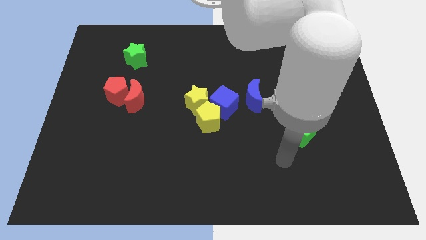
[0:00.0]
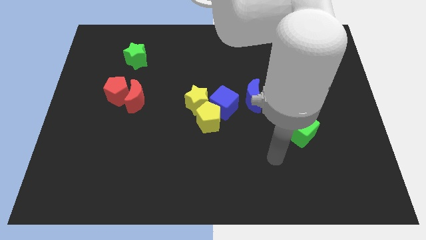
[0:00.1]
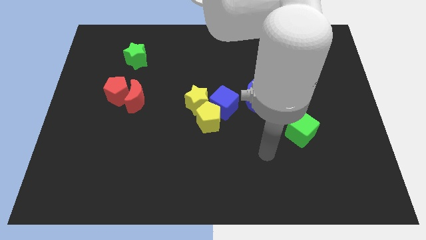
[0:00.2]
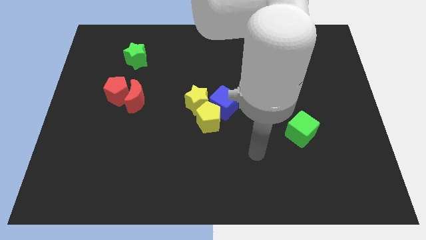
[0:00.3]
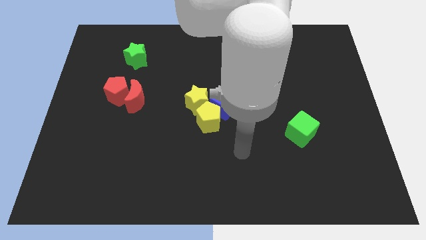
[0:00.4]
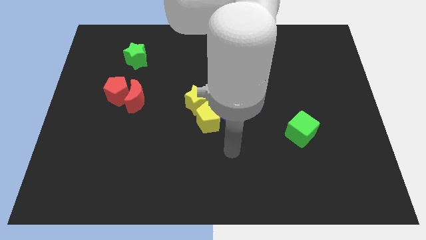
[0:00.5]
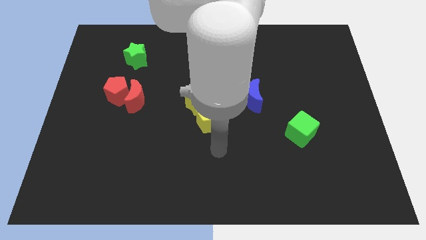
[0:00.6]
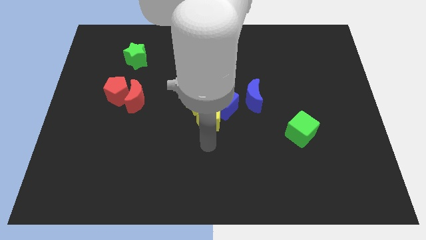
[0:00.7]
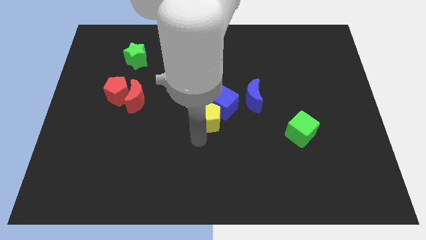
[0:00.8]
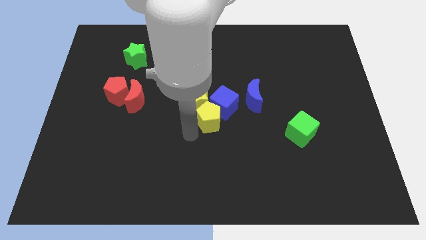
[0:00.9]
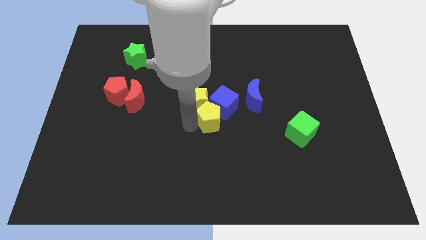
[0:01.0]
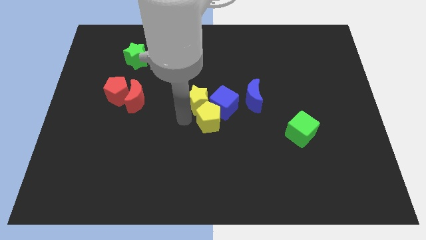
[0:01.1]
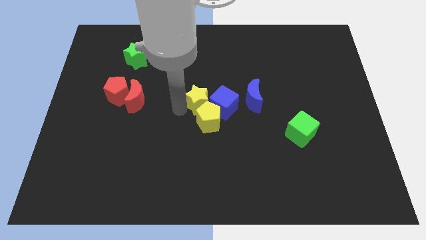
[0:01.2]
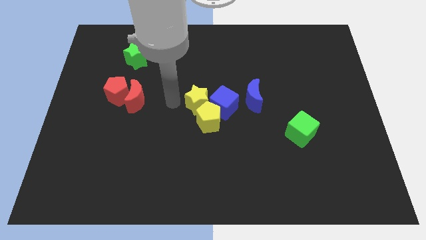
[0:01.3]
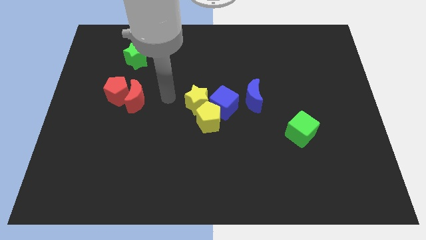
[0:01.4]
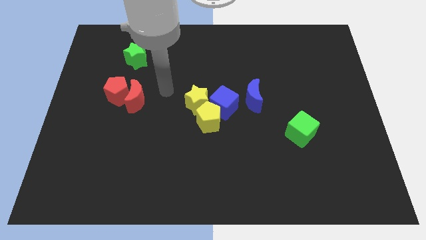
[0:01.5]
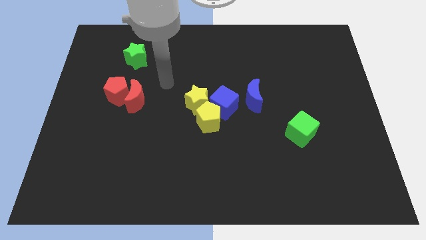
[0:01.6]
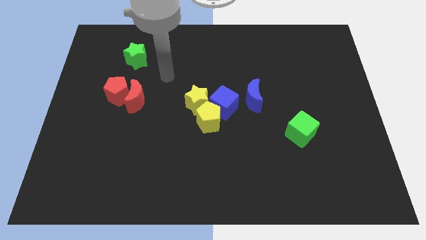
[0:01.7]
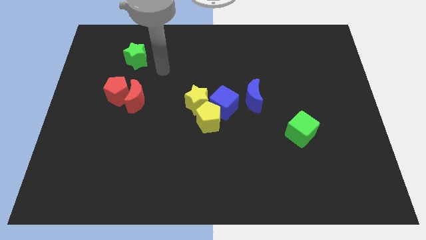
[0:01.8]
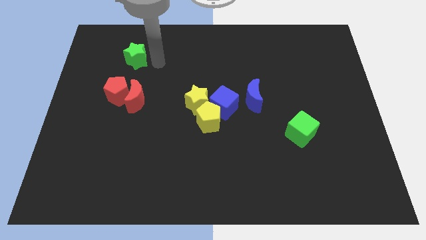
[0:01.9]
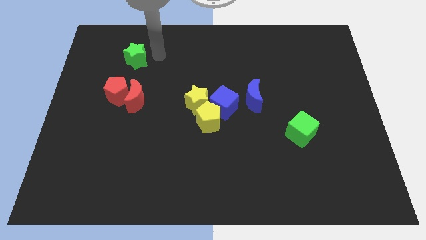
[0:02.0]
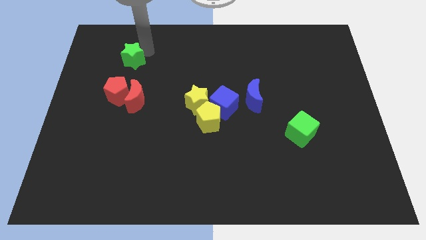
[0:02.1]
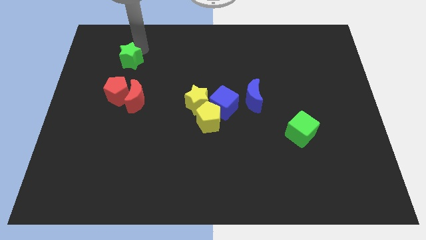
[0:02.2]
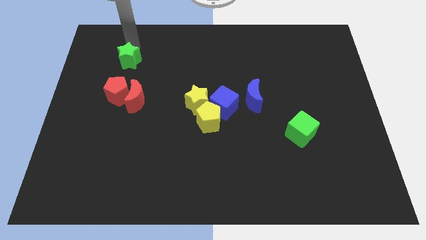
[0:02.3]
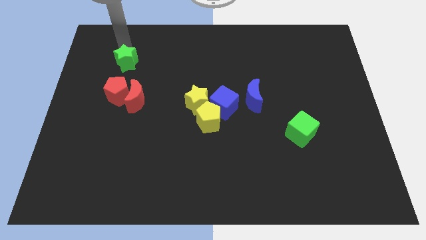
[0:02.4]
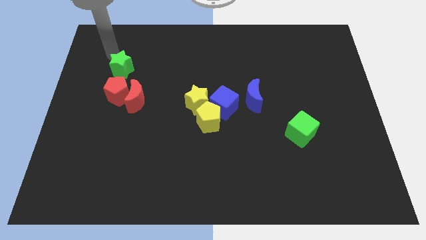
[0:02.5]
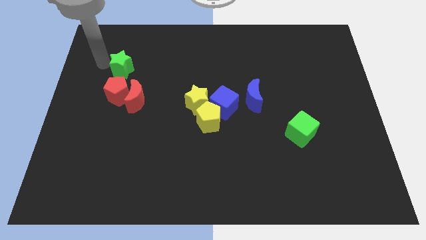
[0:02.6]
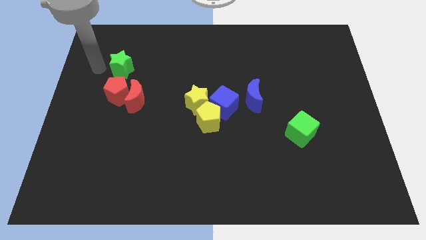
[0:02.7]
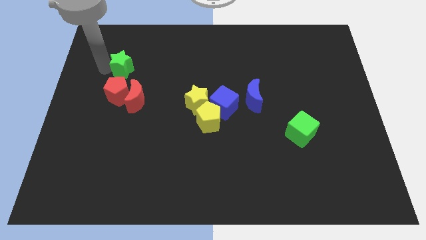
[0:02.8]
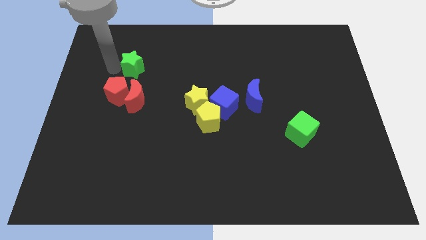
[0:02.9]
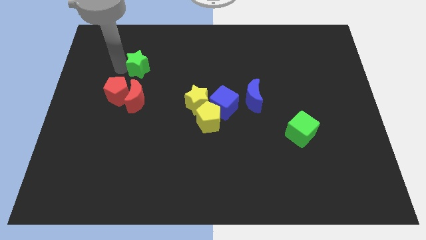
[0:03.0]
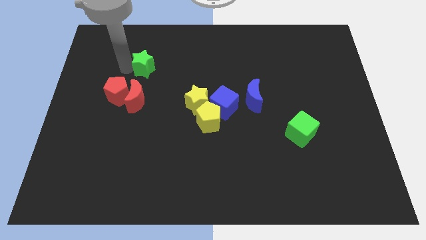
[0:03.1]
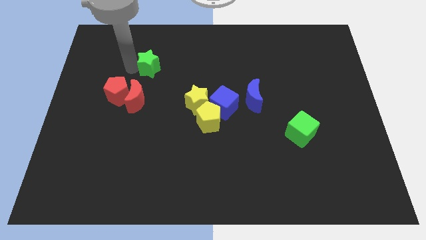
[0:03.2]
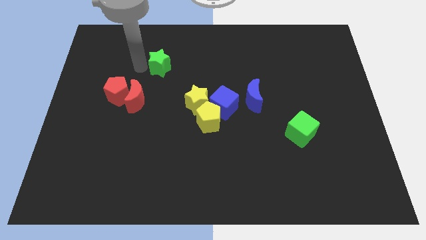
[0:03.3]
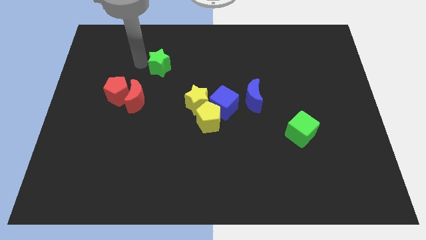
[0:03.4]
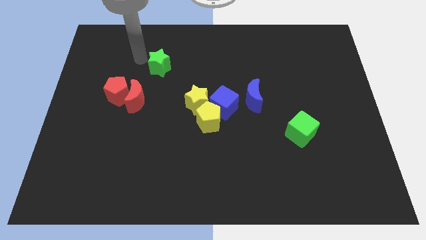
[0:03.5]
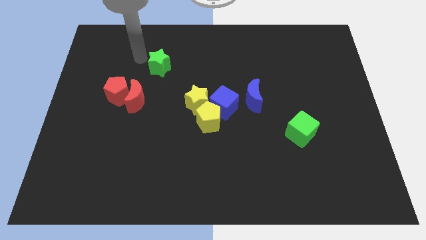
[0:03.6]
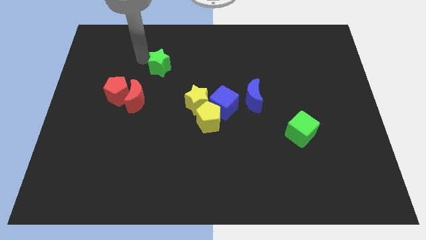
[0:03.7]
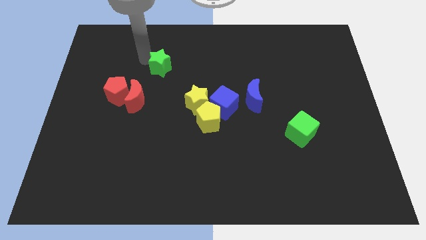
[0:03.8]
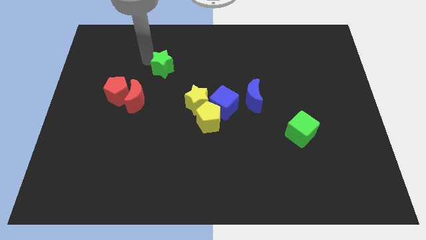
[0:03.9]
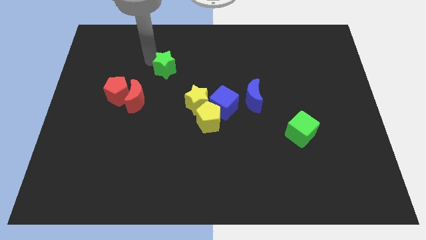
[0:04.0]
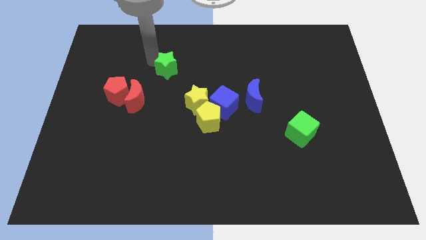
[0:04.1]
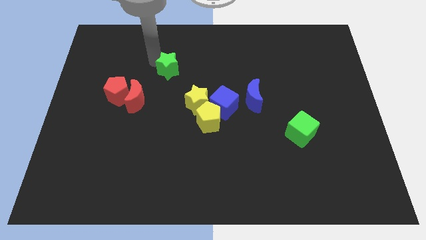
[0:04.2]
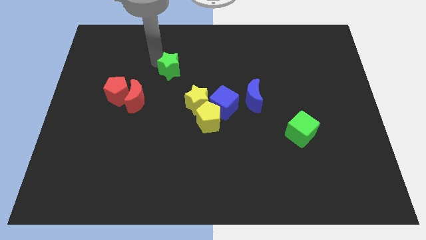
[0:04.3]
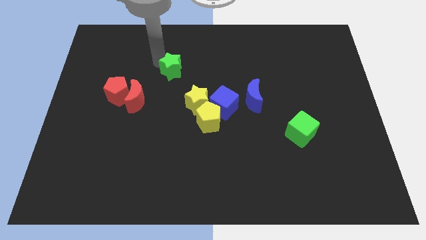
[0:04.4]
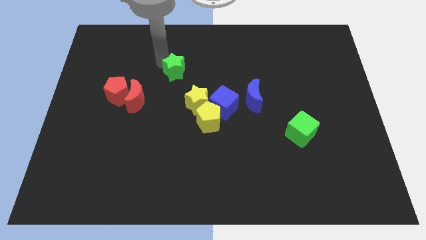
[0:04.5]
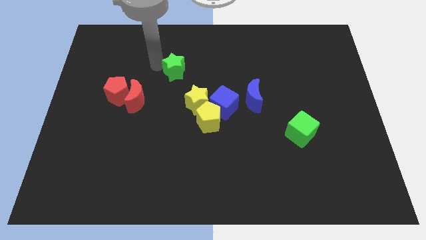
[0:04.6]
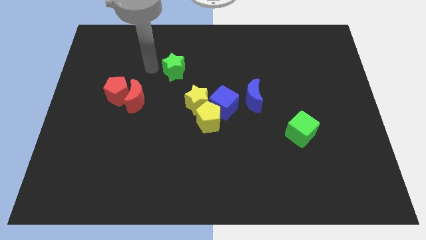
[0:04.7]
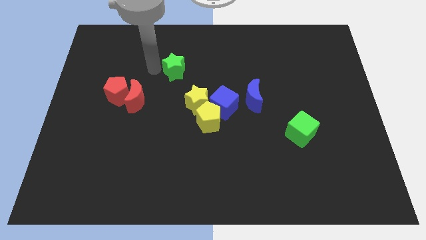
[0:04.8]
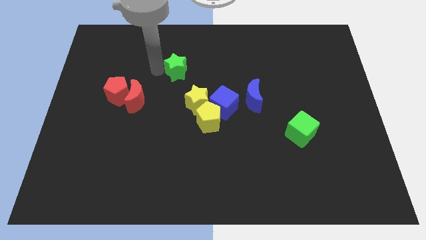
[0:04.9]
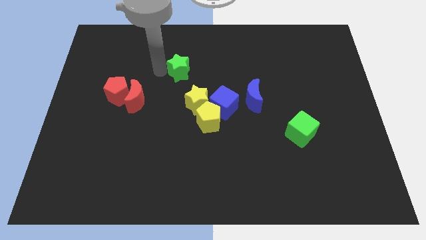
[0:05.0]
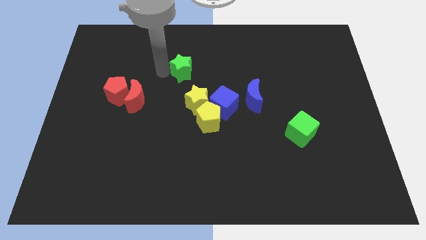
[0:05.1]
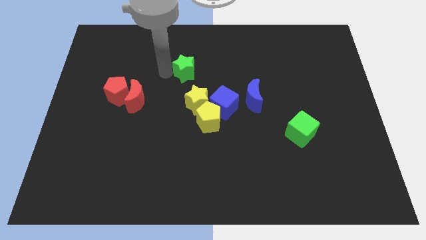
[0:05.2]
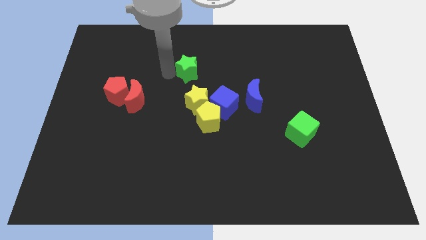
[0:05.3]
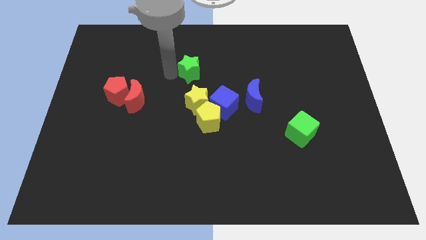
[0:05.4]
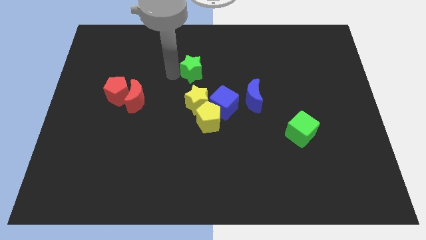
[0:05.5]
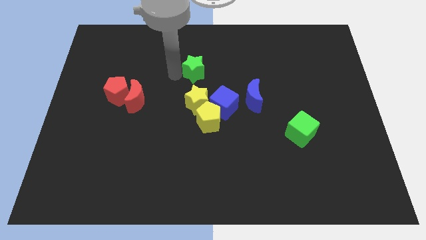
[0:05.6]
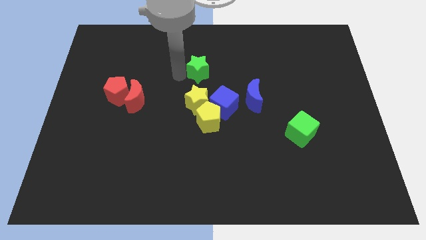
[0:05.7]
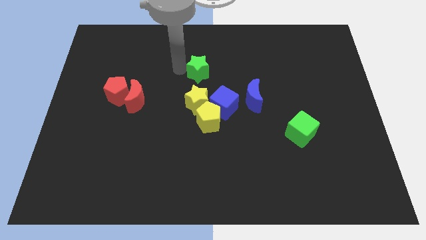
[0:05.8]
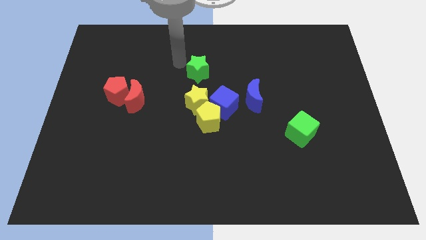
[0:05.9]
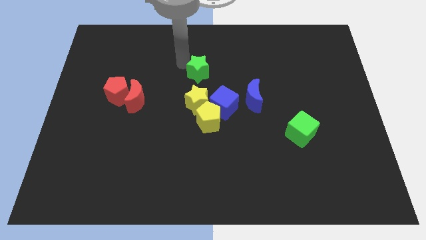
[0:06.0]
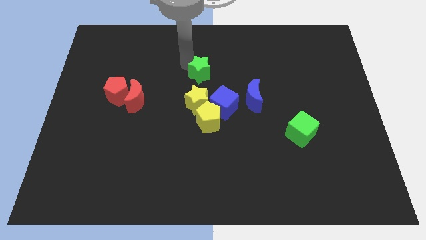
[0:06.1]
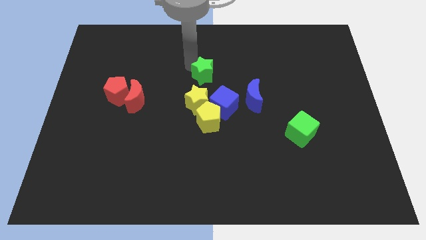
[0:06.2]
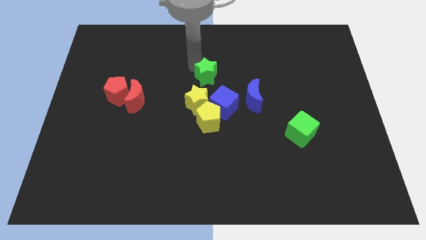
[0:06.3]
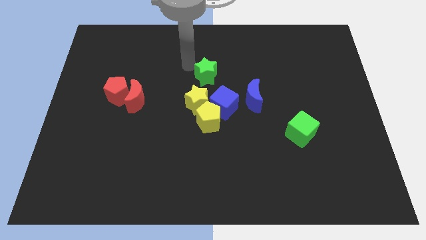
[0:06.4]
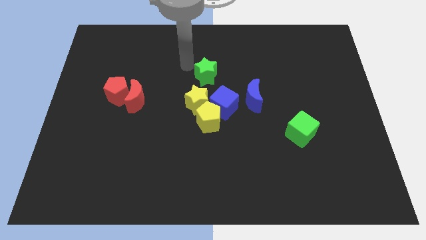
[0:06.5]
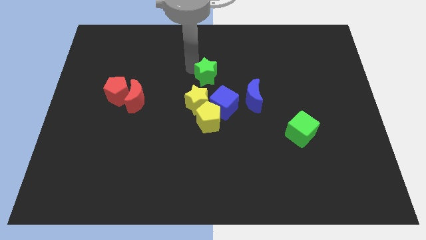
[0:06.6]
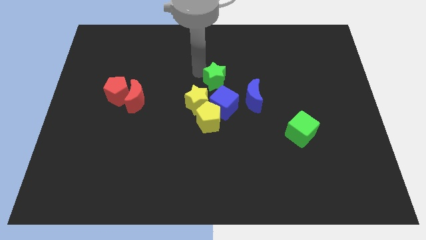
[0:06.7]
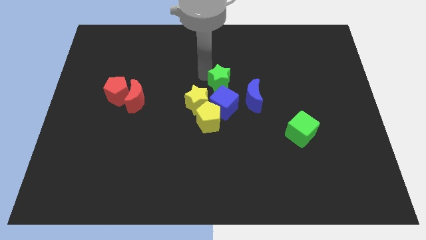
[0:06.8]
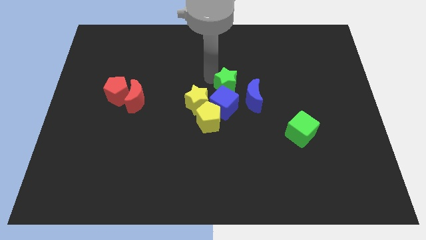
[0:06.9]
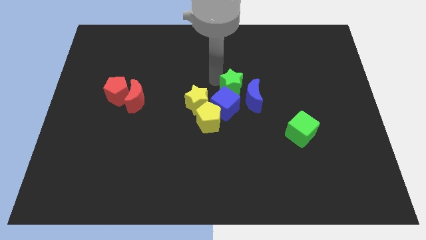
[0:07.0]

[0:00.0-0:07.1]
push the green star next to the blue moon

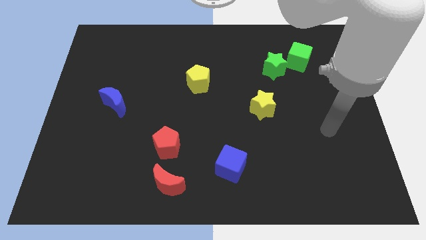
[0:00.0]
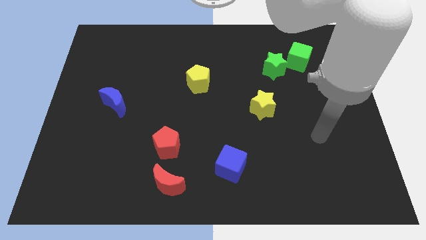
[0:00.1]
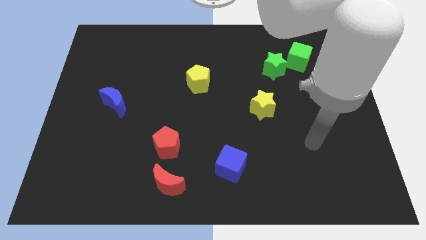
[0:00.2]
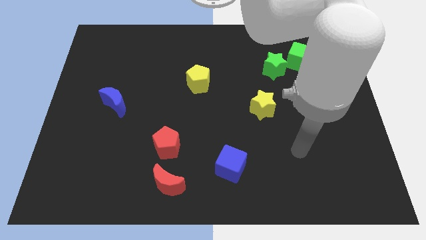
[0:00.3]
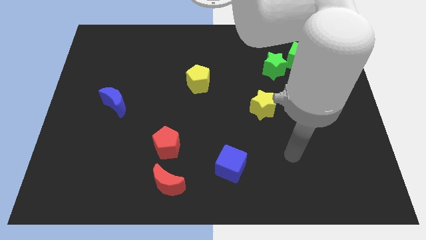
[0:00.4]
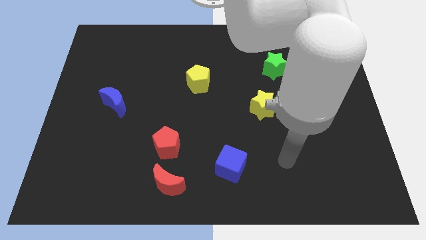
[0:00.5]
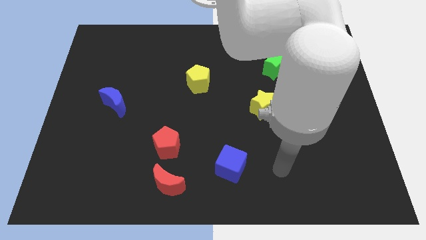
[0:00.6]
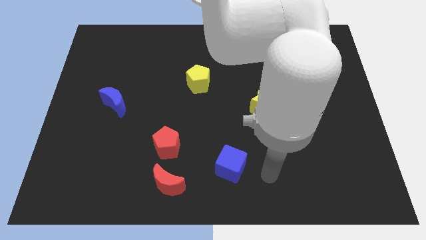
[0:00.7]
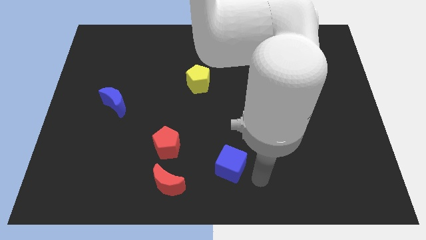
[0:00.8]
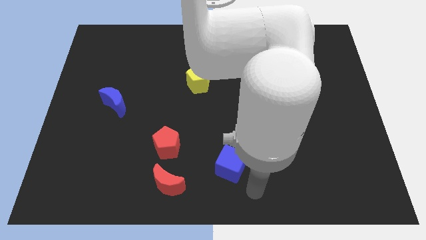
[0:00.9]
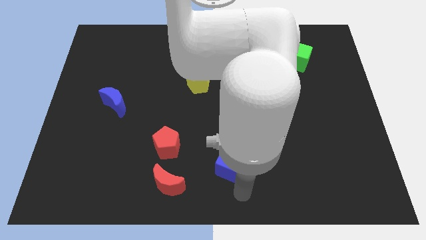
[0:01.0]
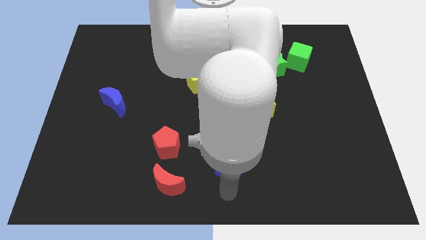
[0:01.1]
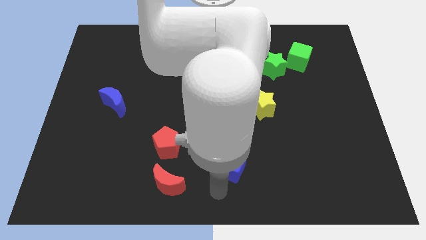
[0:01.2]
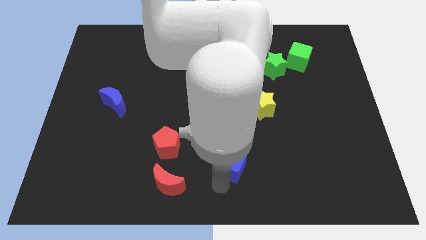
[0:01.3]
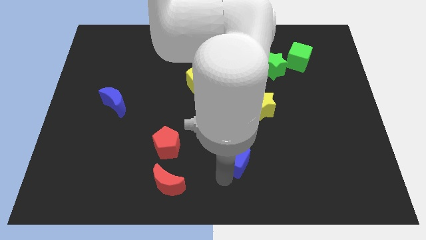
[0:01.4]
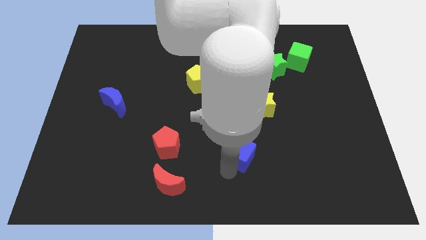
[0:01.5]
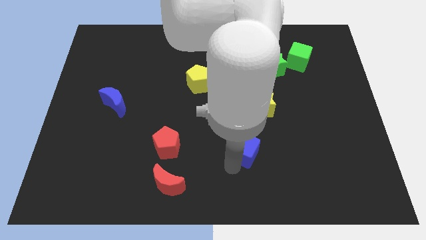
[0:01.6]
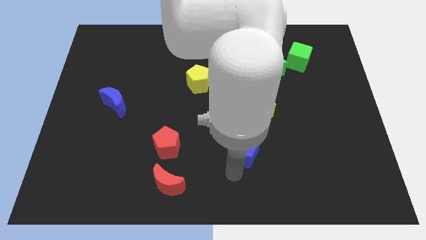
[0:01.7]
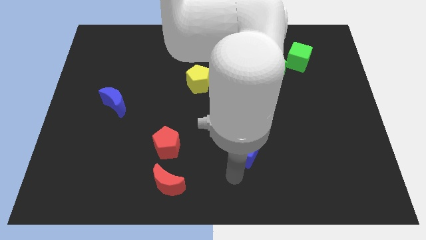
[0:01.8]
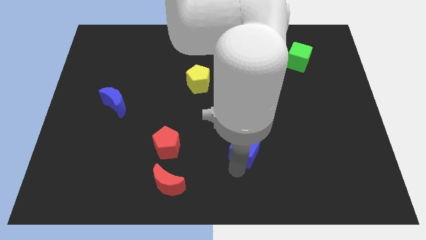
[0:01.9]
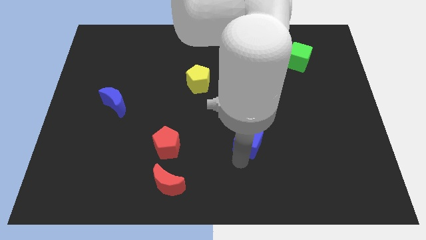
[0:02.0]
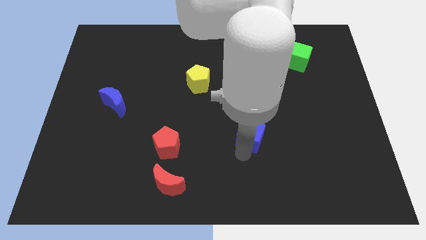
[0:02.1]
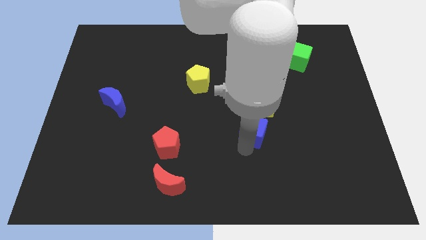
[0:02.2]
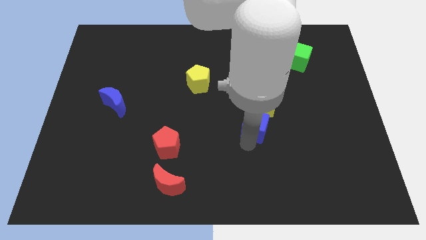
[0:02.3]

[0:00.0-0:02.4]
put the blue cube towards the yellow star
